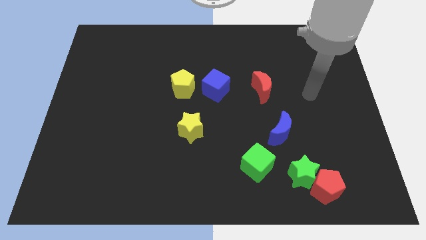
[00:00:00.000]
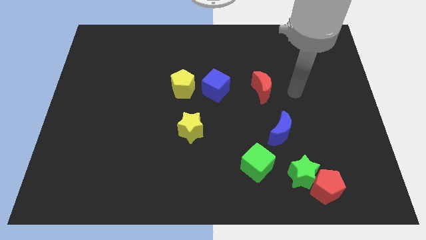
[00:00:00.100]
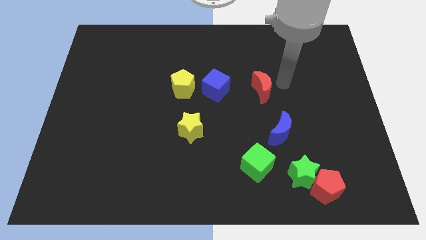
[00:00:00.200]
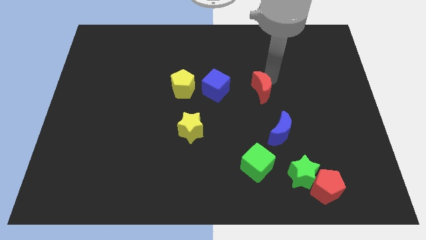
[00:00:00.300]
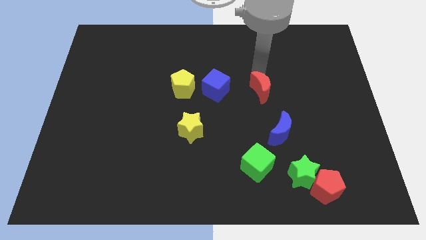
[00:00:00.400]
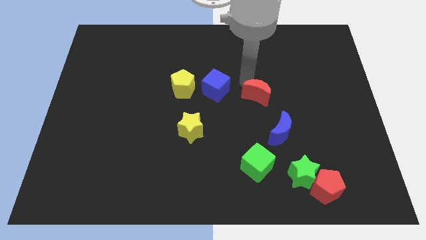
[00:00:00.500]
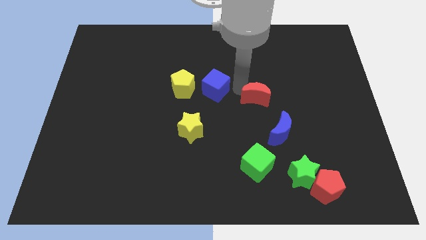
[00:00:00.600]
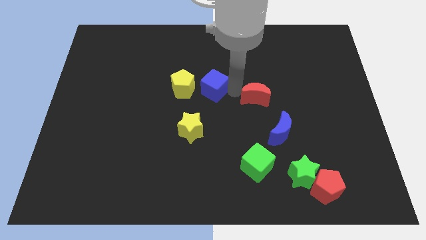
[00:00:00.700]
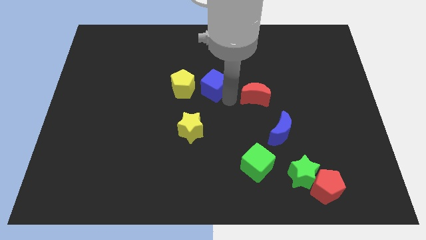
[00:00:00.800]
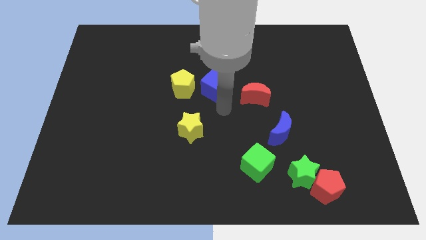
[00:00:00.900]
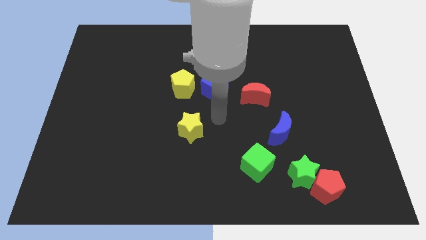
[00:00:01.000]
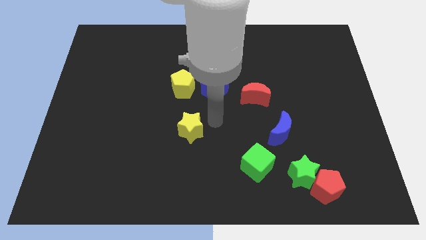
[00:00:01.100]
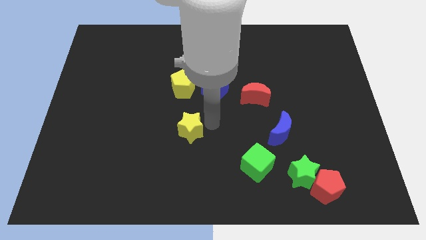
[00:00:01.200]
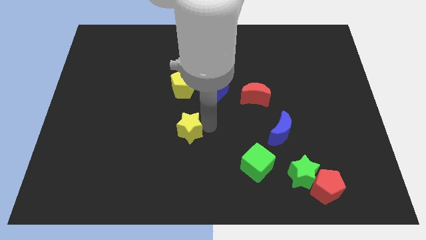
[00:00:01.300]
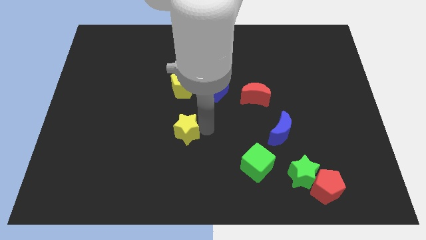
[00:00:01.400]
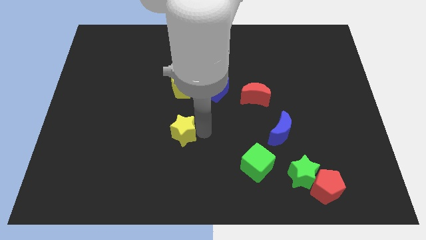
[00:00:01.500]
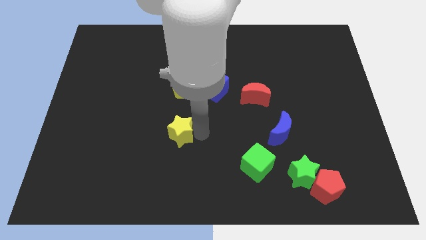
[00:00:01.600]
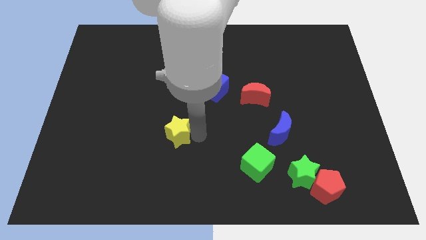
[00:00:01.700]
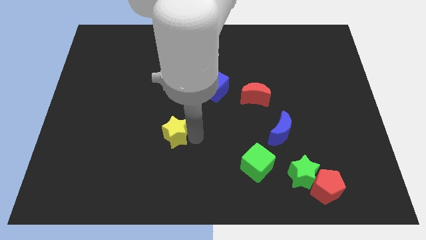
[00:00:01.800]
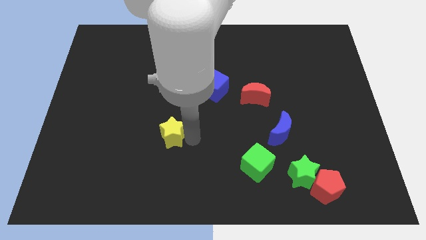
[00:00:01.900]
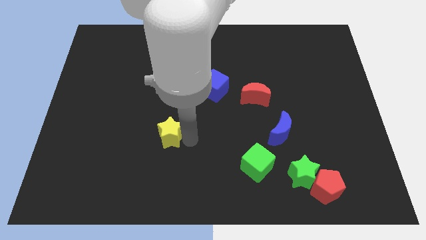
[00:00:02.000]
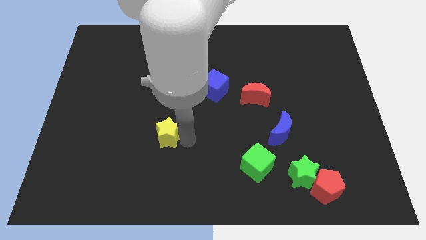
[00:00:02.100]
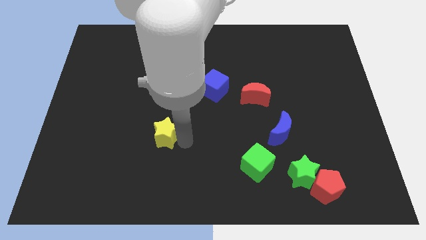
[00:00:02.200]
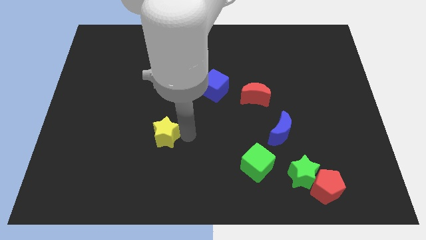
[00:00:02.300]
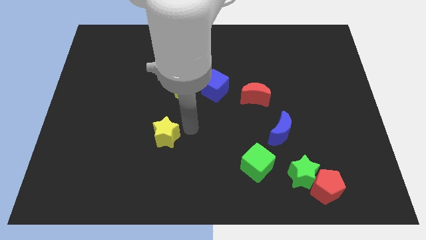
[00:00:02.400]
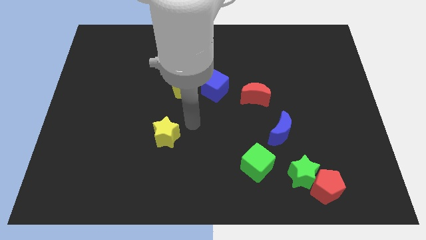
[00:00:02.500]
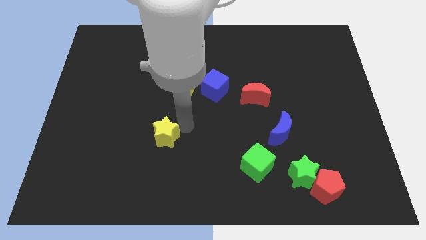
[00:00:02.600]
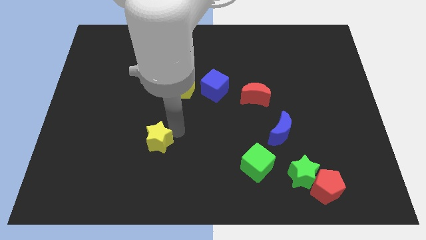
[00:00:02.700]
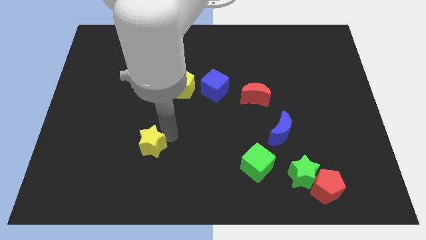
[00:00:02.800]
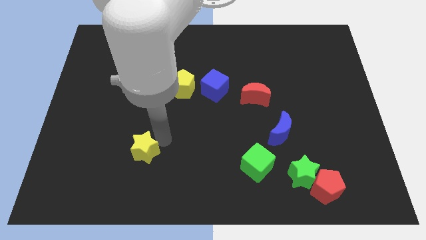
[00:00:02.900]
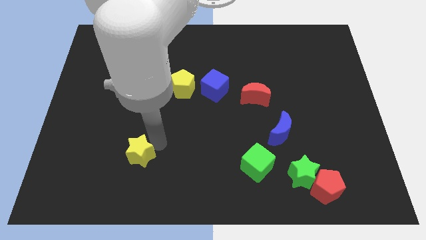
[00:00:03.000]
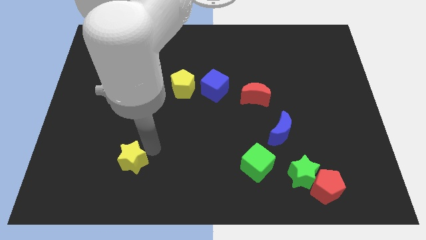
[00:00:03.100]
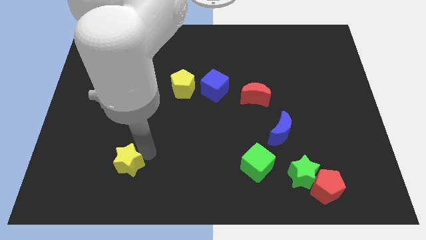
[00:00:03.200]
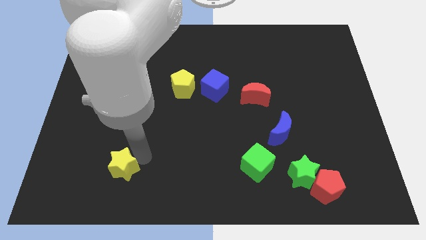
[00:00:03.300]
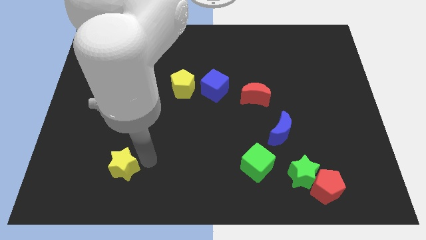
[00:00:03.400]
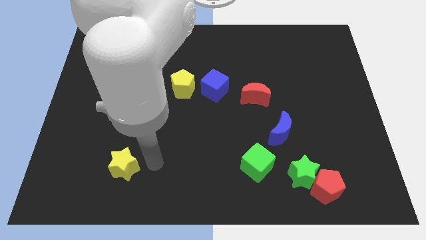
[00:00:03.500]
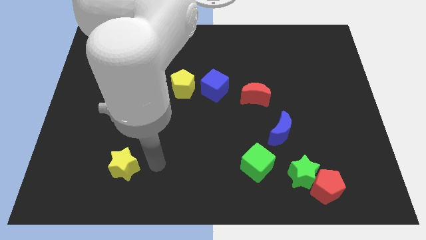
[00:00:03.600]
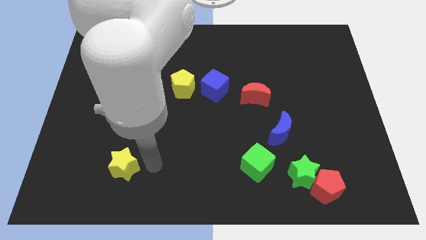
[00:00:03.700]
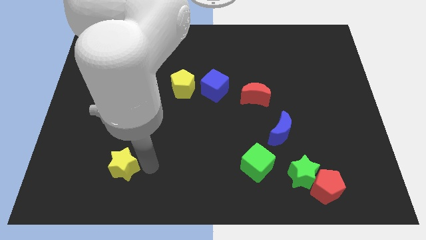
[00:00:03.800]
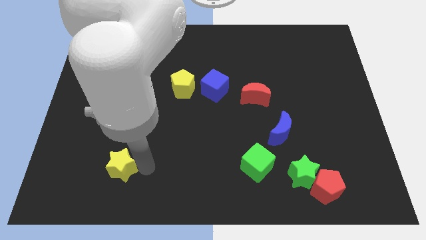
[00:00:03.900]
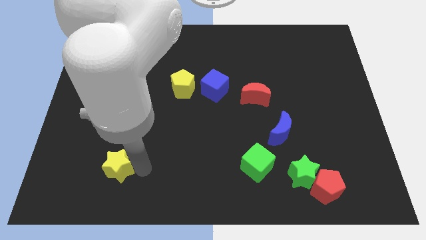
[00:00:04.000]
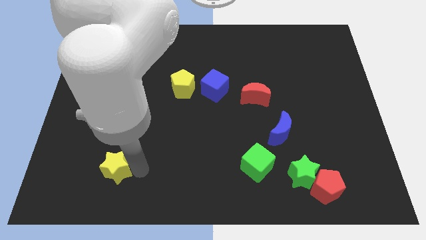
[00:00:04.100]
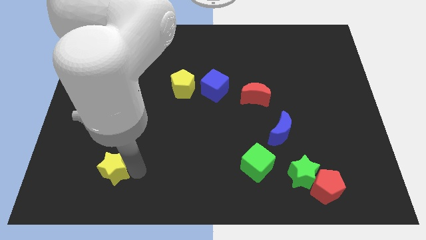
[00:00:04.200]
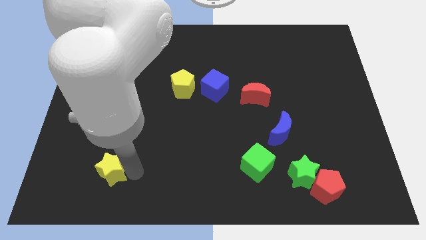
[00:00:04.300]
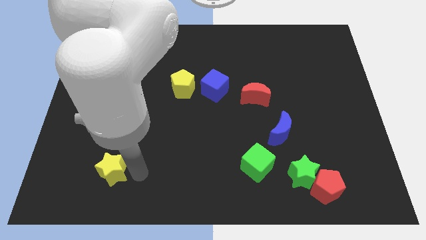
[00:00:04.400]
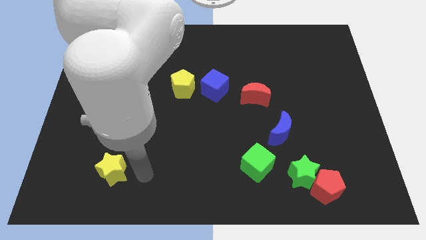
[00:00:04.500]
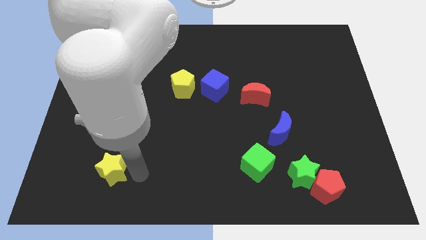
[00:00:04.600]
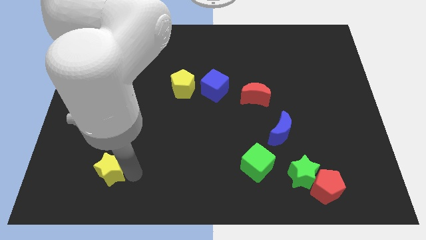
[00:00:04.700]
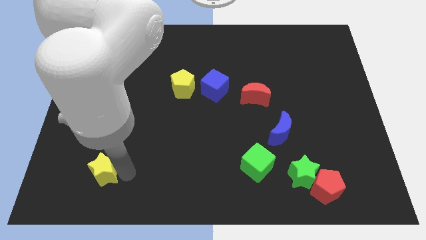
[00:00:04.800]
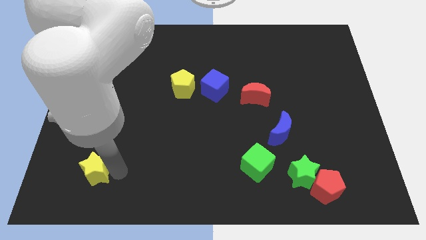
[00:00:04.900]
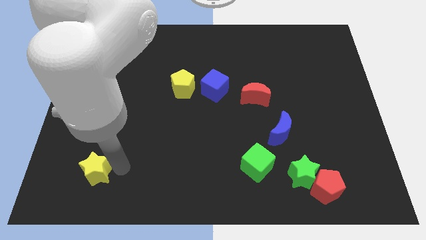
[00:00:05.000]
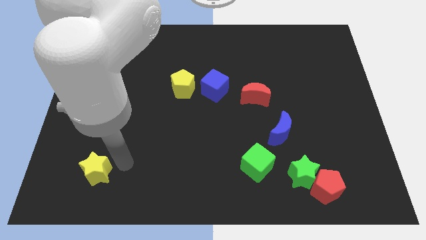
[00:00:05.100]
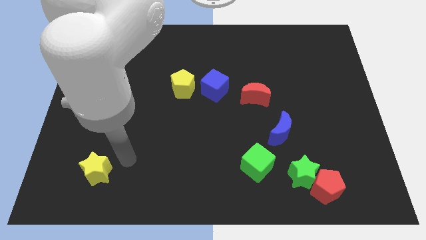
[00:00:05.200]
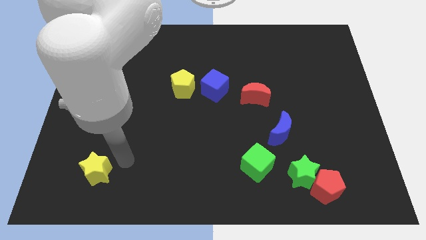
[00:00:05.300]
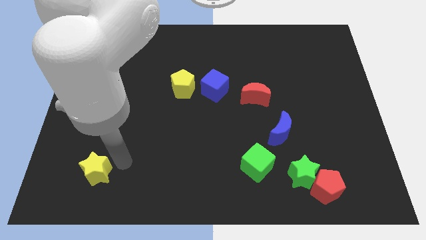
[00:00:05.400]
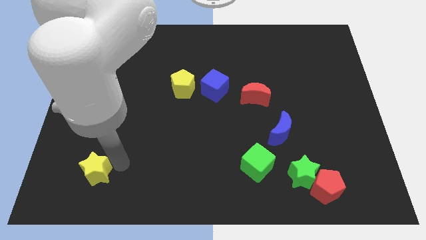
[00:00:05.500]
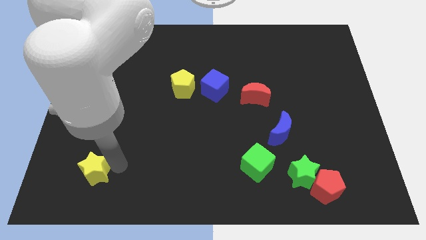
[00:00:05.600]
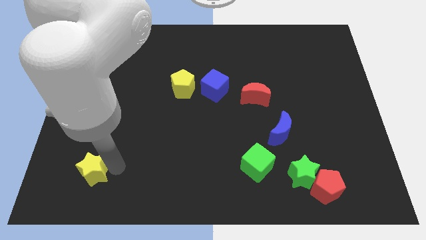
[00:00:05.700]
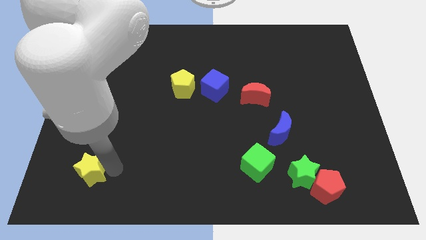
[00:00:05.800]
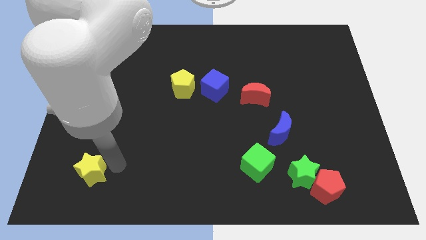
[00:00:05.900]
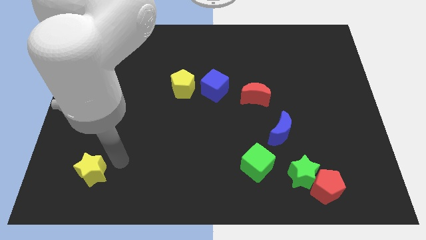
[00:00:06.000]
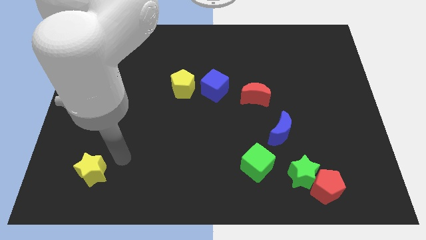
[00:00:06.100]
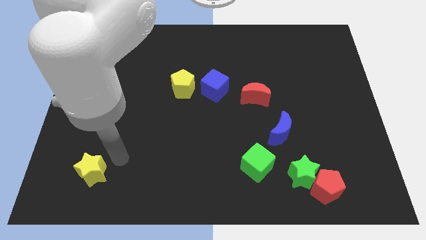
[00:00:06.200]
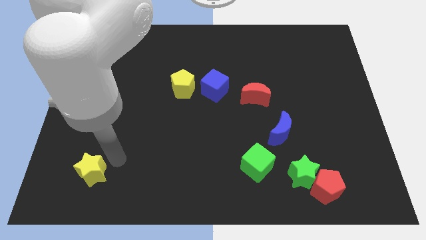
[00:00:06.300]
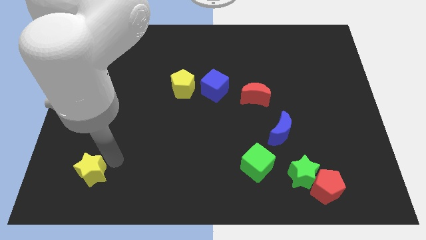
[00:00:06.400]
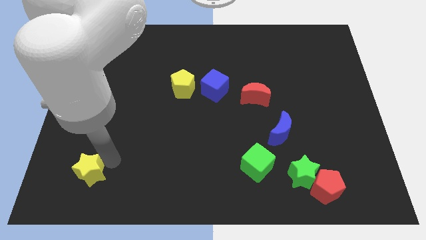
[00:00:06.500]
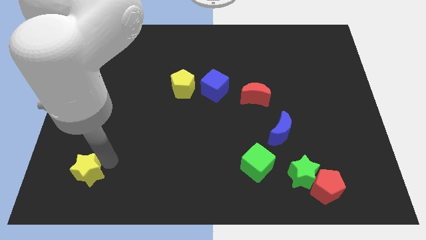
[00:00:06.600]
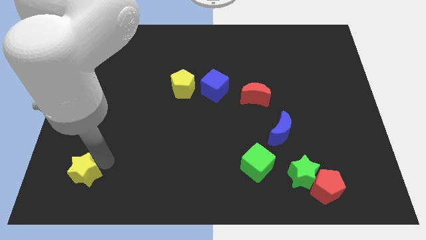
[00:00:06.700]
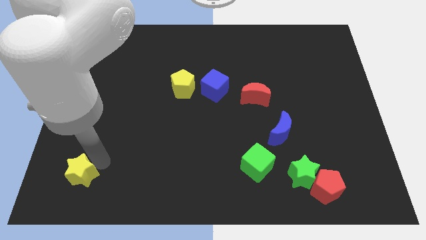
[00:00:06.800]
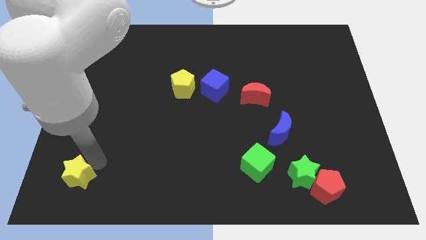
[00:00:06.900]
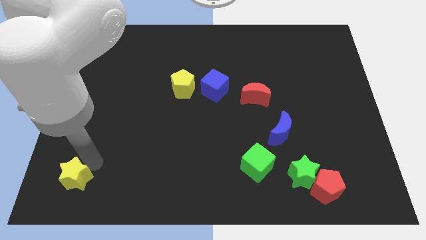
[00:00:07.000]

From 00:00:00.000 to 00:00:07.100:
slide the yellow star to the bottom left of the board

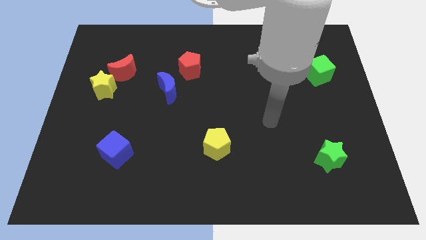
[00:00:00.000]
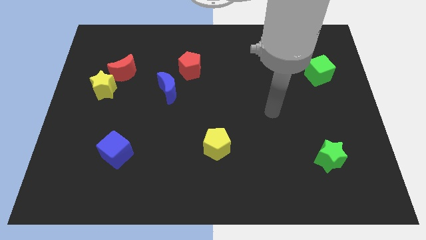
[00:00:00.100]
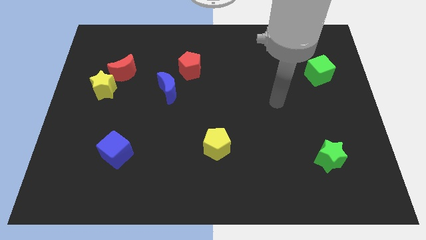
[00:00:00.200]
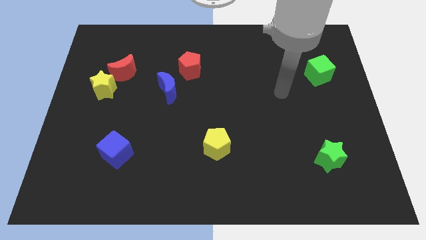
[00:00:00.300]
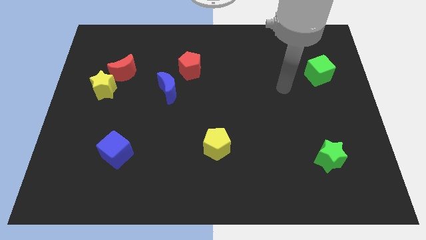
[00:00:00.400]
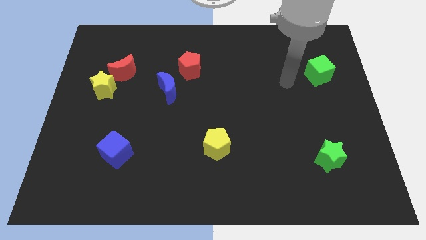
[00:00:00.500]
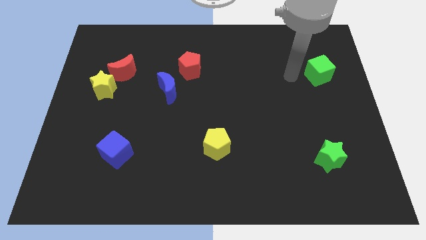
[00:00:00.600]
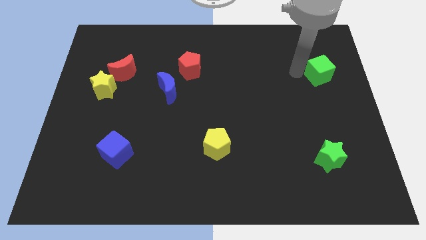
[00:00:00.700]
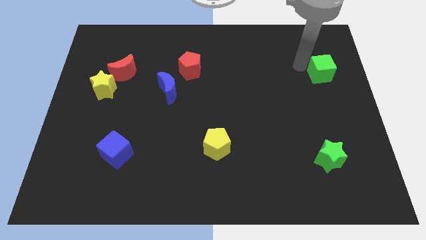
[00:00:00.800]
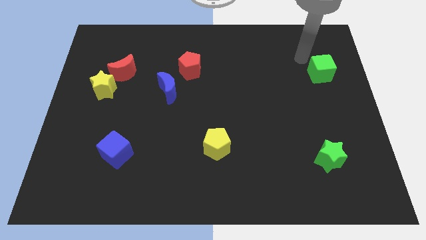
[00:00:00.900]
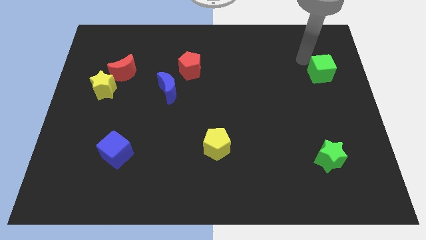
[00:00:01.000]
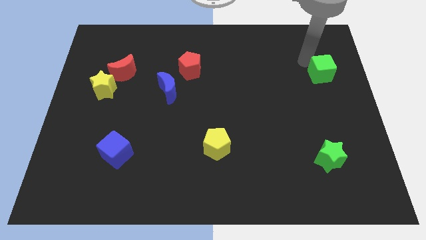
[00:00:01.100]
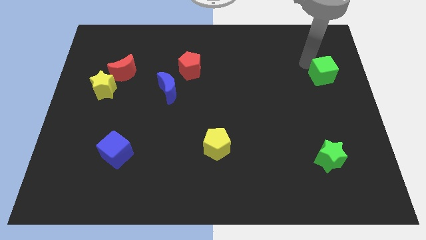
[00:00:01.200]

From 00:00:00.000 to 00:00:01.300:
slide the green cube to the center right
